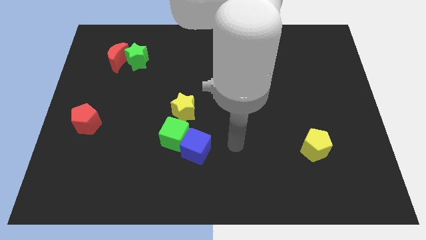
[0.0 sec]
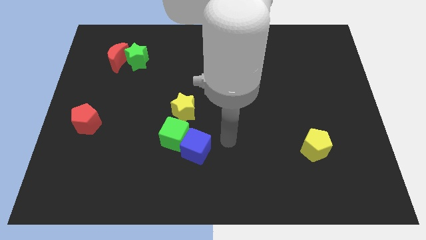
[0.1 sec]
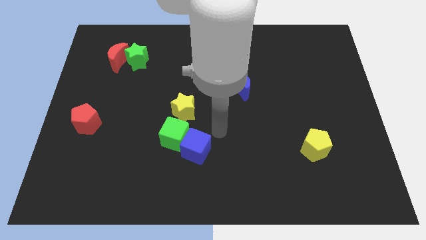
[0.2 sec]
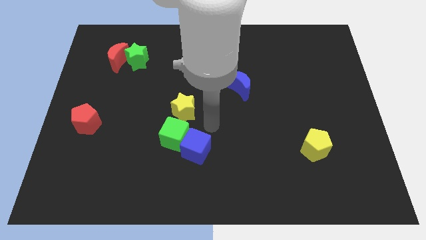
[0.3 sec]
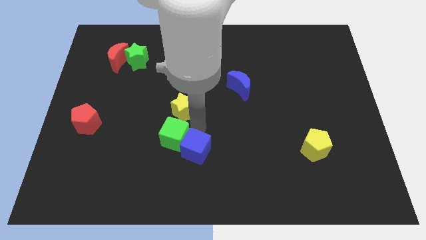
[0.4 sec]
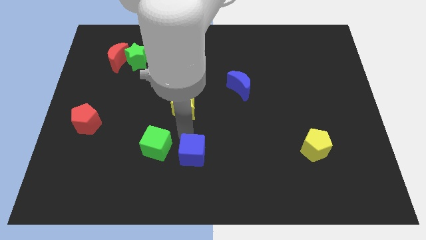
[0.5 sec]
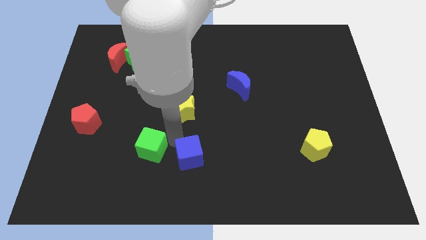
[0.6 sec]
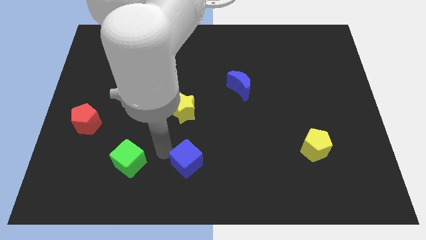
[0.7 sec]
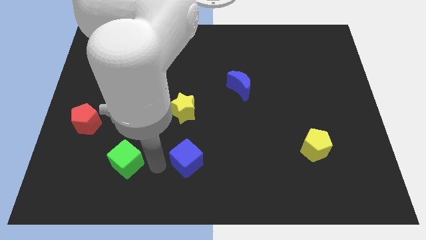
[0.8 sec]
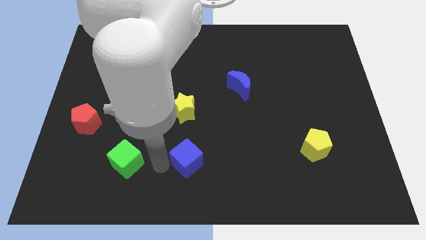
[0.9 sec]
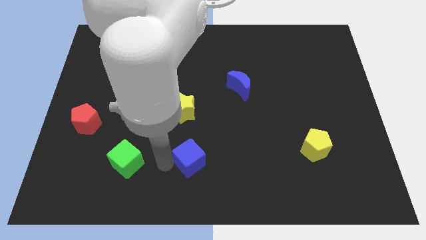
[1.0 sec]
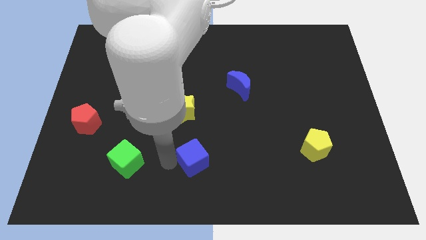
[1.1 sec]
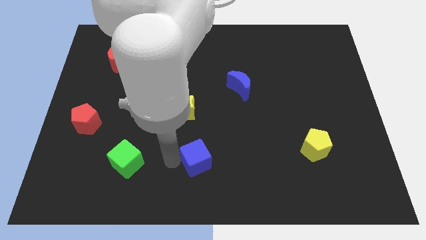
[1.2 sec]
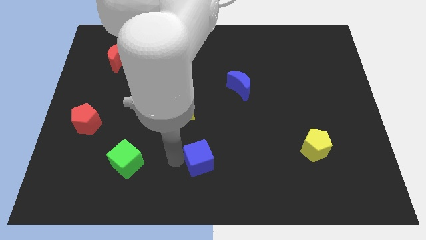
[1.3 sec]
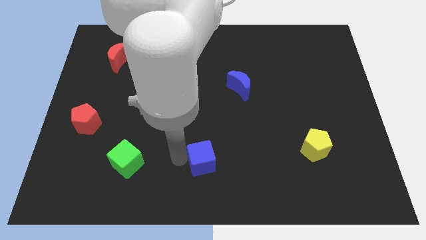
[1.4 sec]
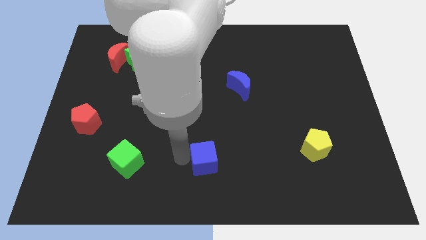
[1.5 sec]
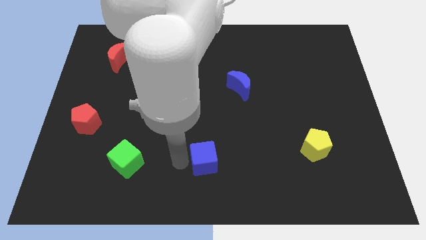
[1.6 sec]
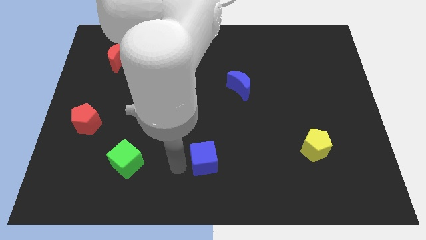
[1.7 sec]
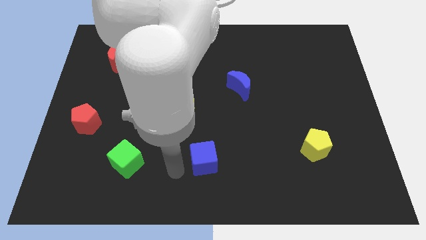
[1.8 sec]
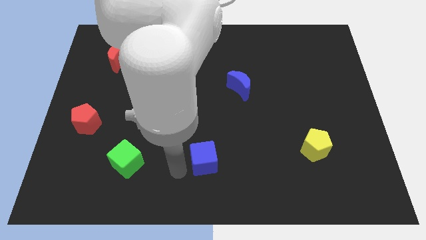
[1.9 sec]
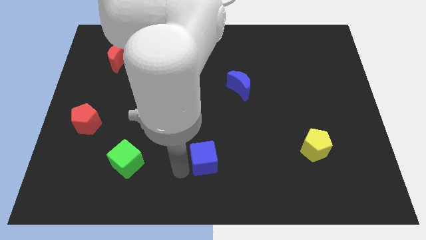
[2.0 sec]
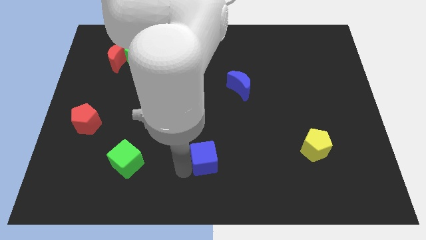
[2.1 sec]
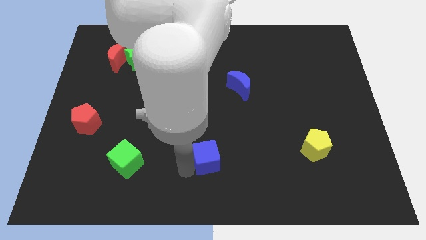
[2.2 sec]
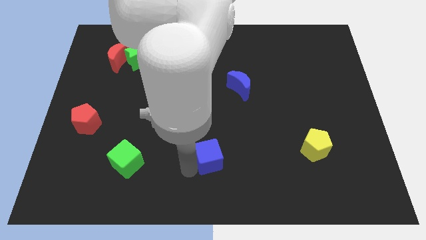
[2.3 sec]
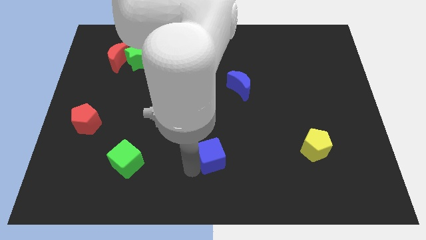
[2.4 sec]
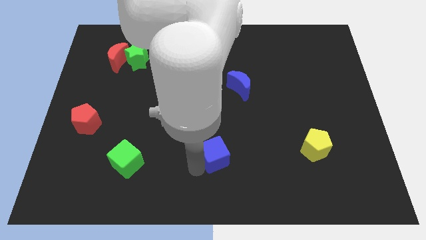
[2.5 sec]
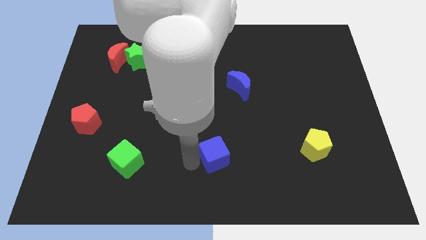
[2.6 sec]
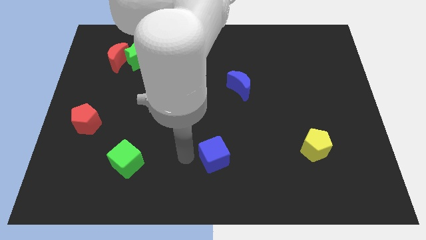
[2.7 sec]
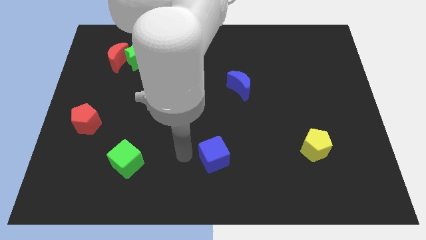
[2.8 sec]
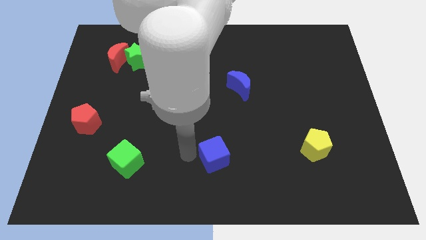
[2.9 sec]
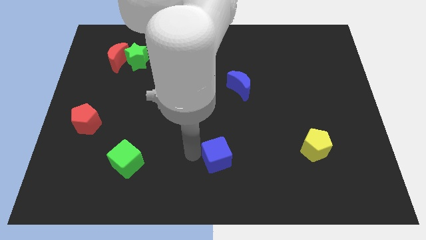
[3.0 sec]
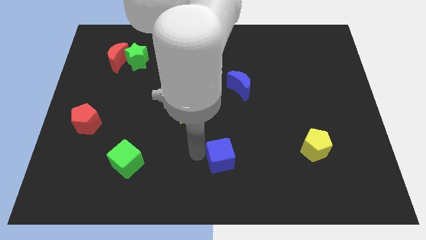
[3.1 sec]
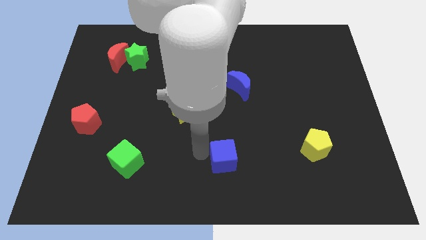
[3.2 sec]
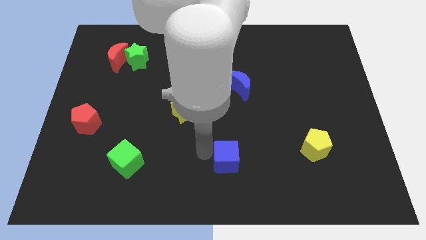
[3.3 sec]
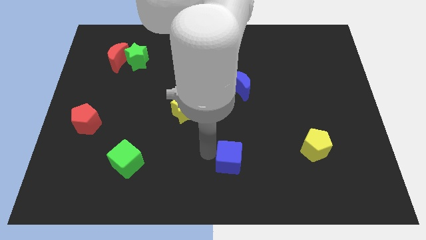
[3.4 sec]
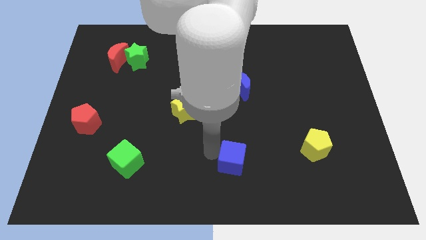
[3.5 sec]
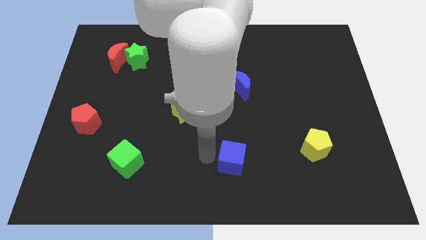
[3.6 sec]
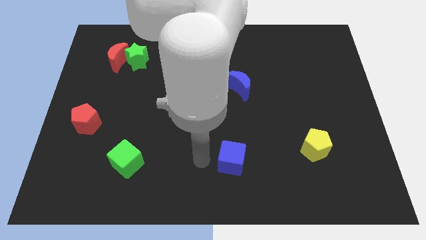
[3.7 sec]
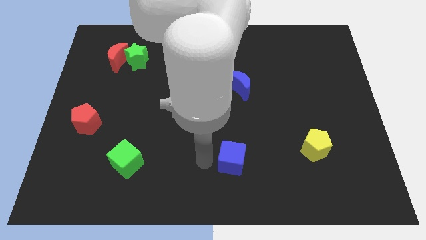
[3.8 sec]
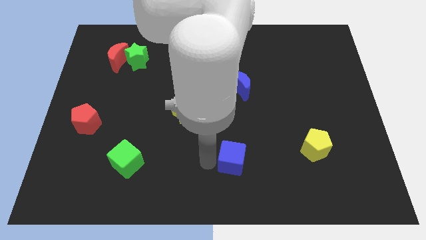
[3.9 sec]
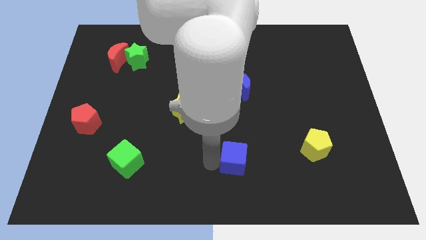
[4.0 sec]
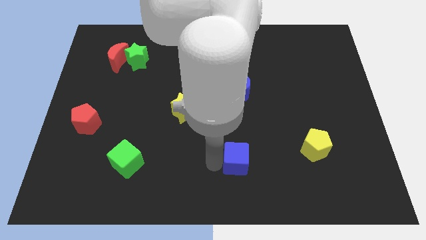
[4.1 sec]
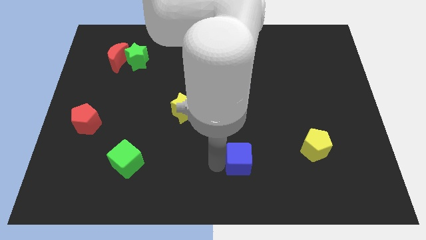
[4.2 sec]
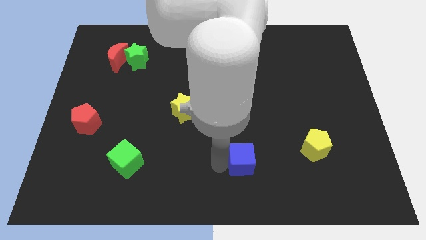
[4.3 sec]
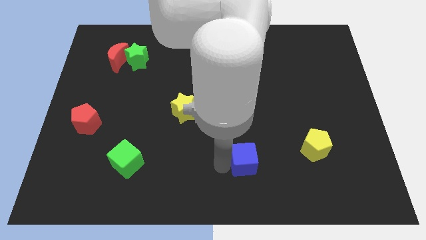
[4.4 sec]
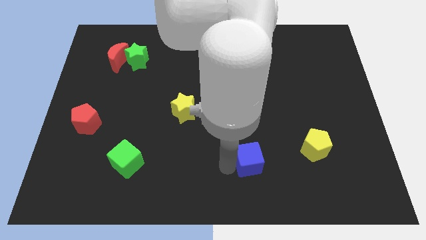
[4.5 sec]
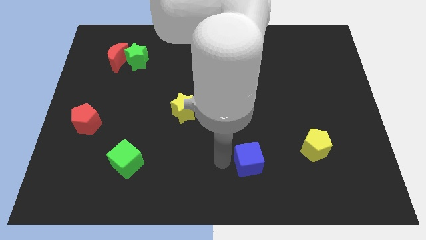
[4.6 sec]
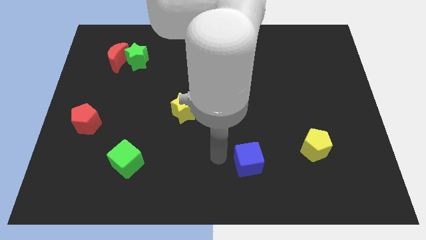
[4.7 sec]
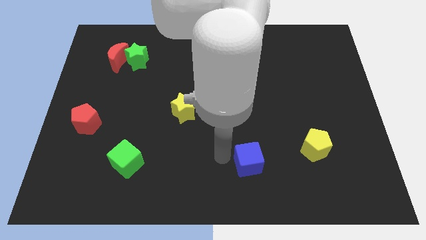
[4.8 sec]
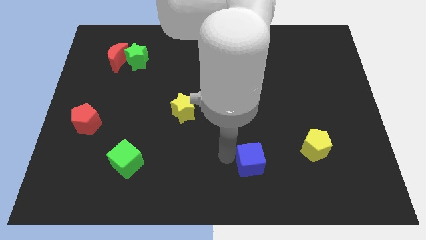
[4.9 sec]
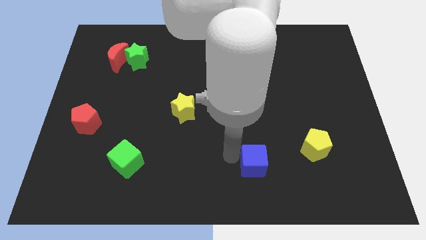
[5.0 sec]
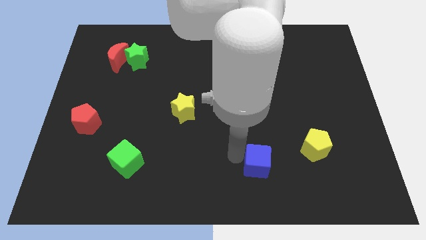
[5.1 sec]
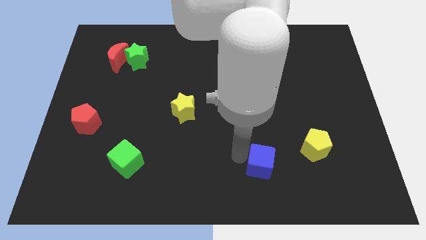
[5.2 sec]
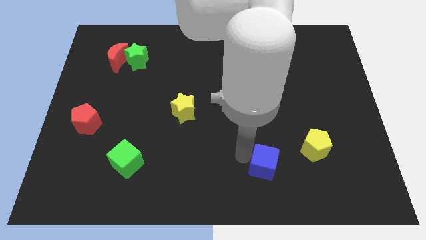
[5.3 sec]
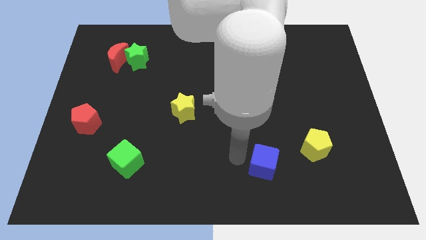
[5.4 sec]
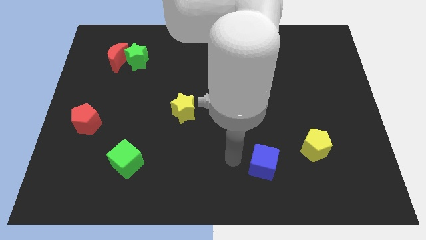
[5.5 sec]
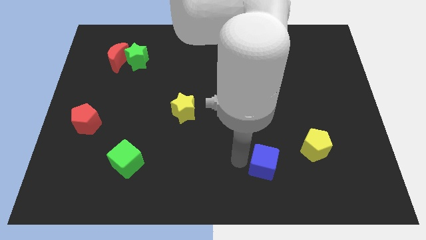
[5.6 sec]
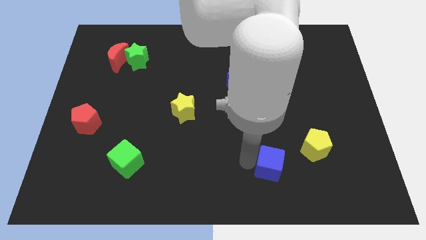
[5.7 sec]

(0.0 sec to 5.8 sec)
push the blue cube to the bottom left side of the yellow pentagon
